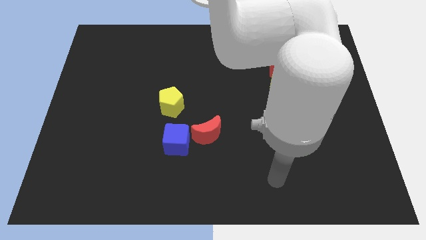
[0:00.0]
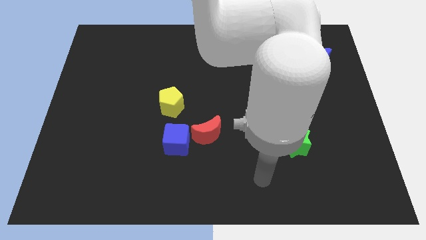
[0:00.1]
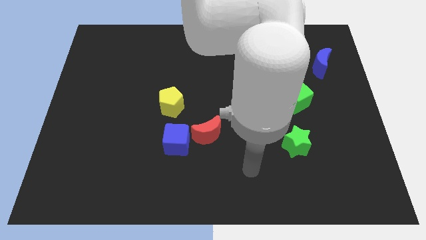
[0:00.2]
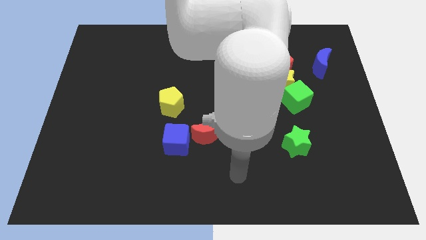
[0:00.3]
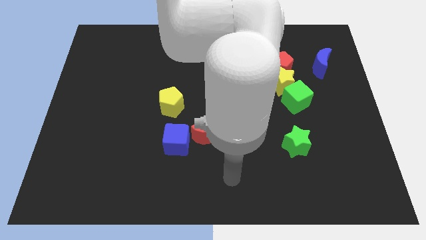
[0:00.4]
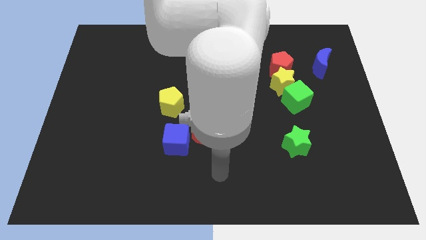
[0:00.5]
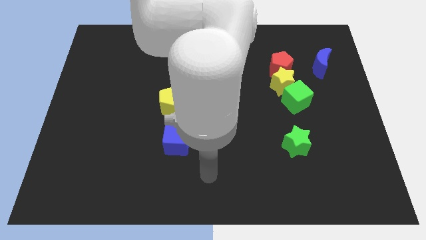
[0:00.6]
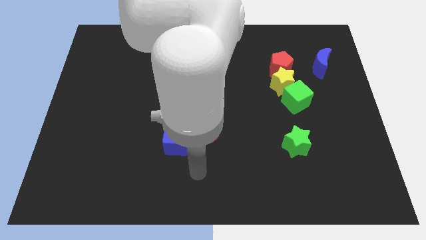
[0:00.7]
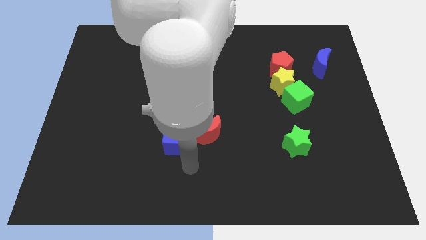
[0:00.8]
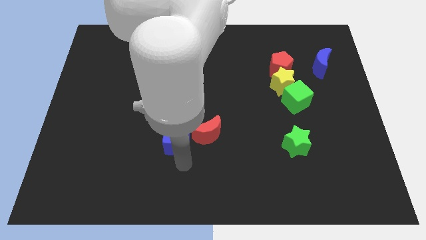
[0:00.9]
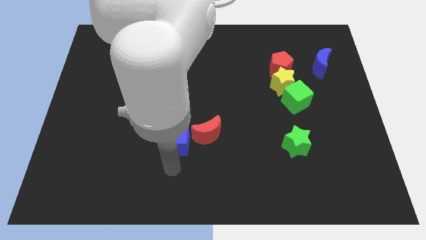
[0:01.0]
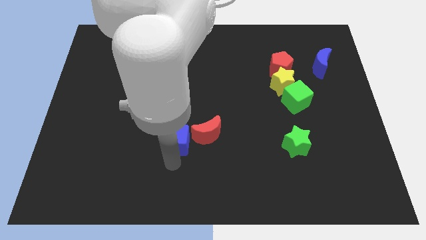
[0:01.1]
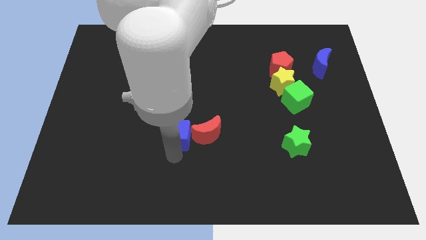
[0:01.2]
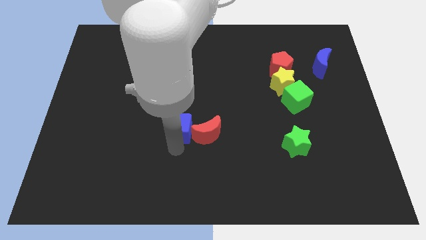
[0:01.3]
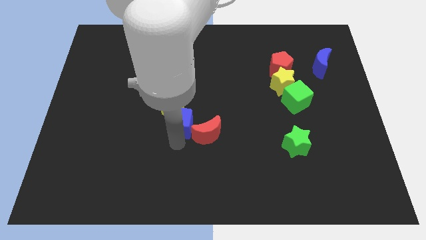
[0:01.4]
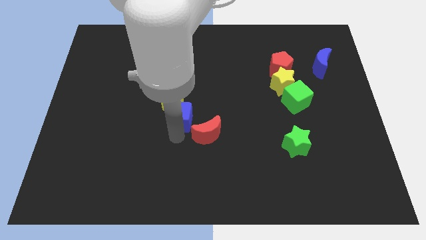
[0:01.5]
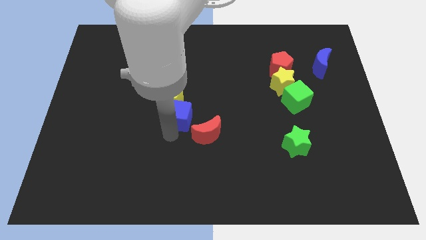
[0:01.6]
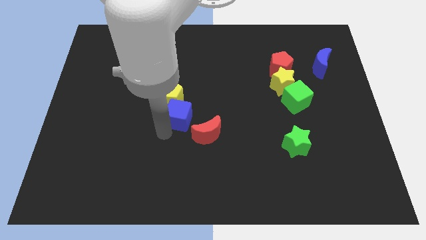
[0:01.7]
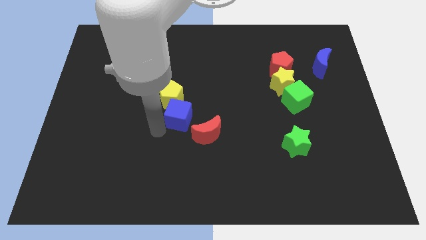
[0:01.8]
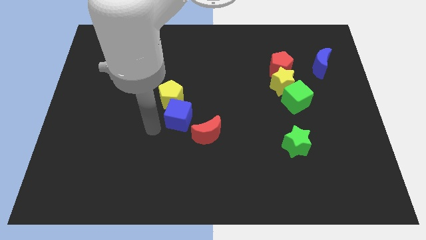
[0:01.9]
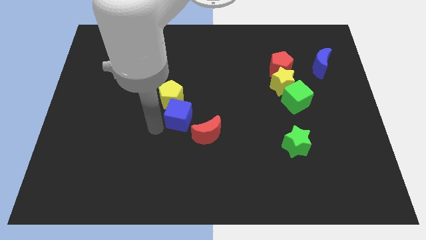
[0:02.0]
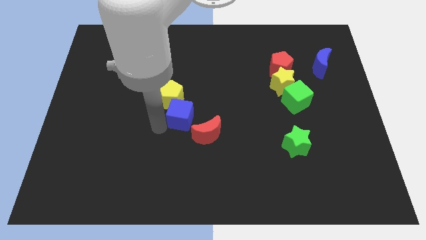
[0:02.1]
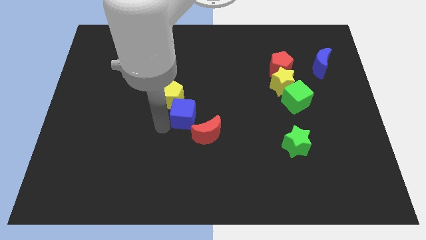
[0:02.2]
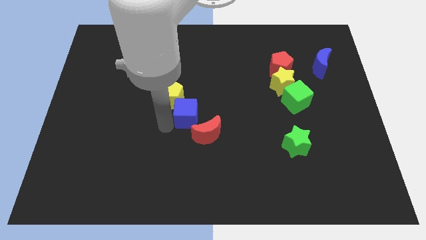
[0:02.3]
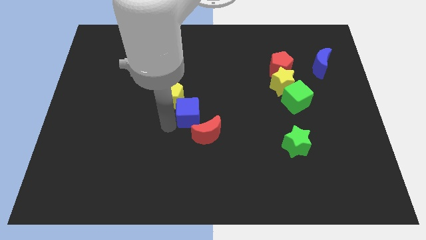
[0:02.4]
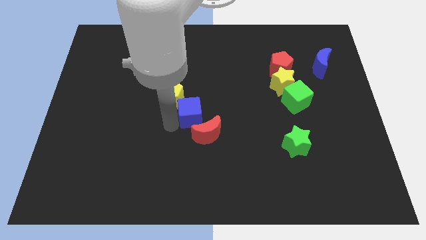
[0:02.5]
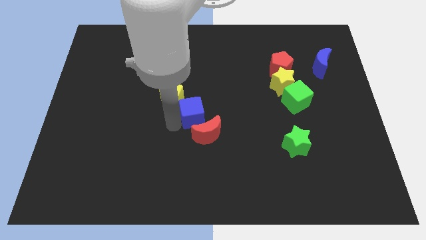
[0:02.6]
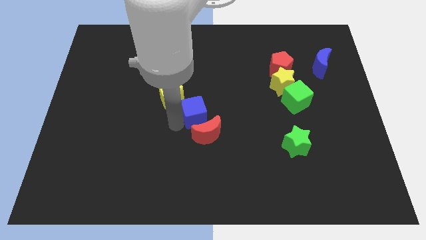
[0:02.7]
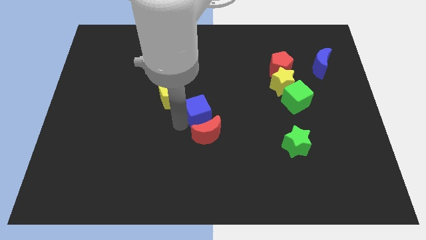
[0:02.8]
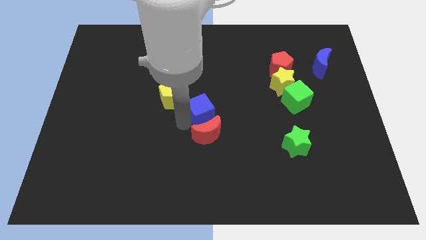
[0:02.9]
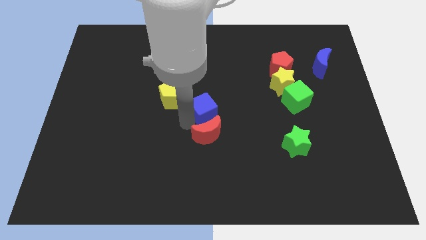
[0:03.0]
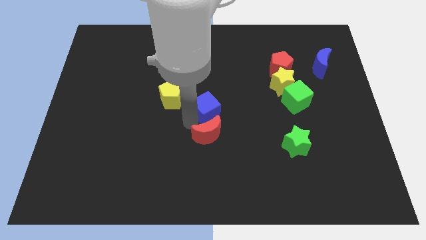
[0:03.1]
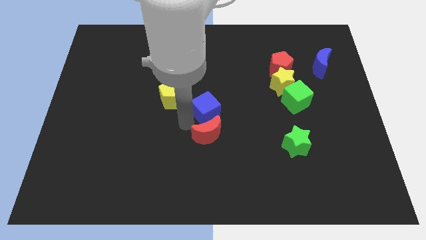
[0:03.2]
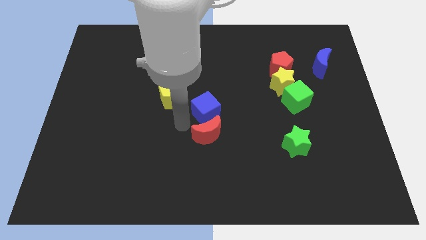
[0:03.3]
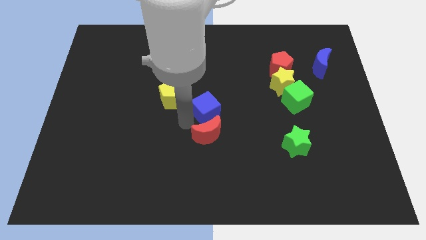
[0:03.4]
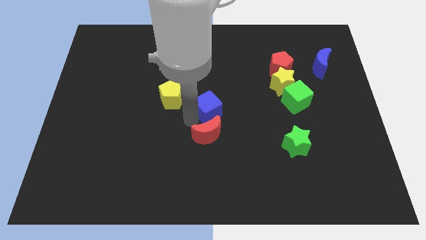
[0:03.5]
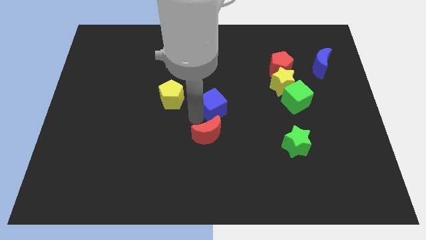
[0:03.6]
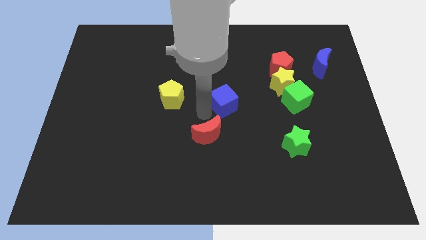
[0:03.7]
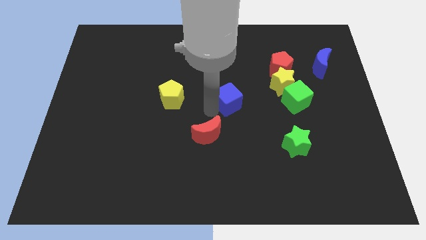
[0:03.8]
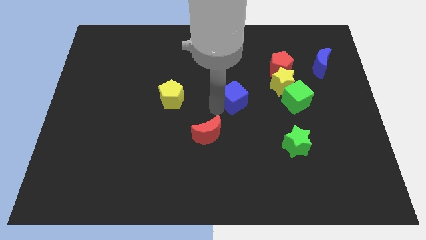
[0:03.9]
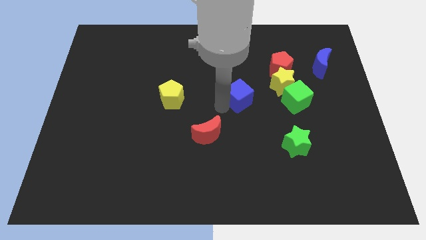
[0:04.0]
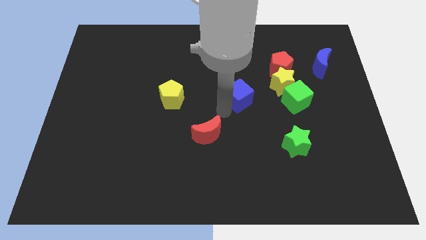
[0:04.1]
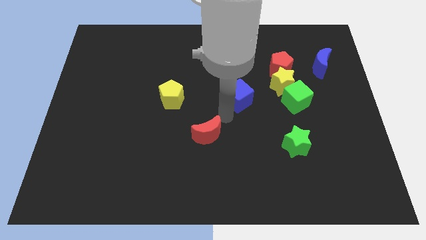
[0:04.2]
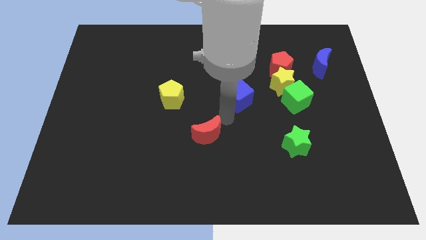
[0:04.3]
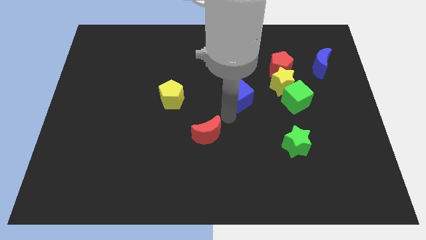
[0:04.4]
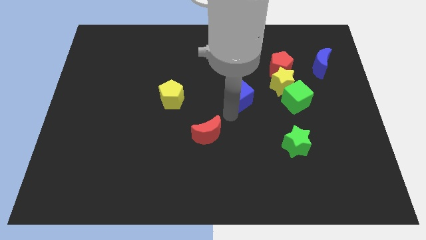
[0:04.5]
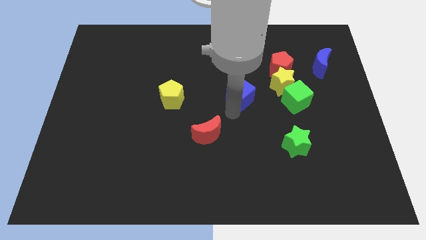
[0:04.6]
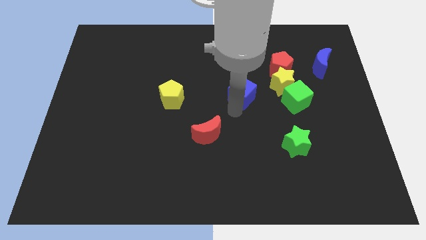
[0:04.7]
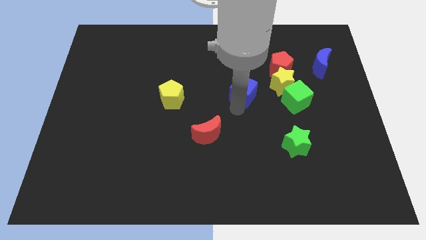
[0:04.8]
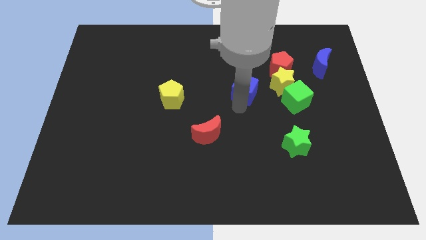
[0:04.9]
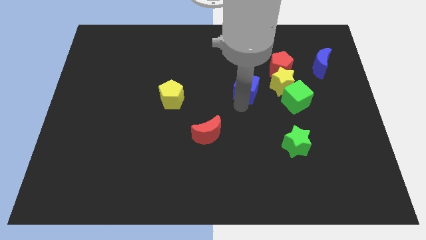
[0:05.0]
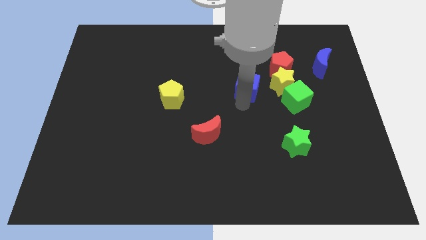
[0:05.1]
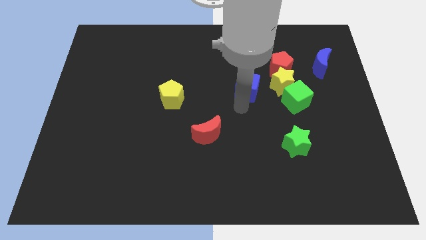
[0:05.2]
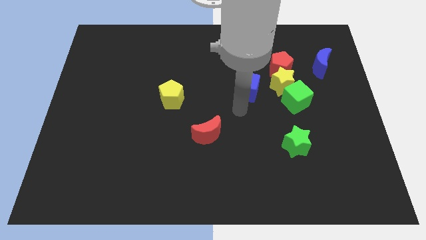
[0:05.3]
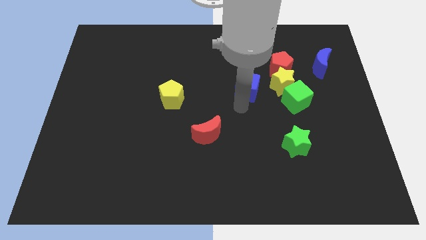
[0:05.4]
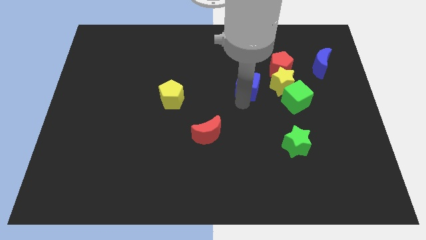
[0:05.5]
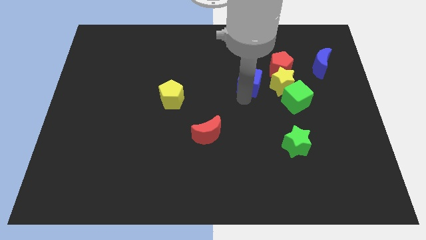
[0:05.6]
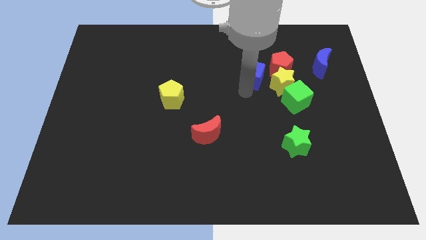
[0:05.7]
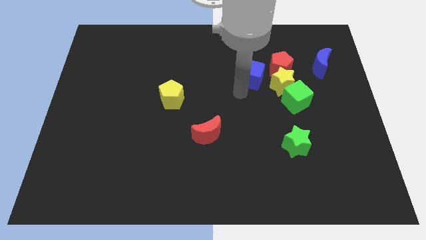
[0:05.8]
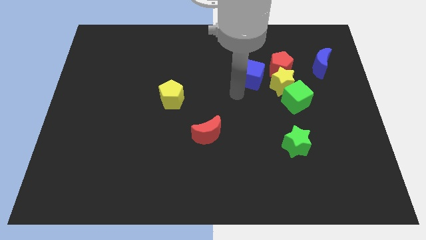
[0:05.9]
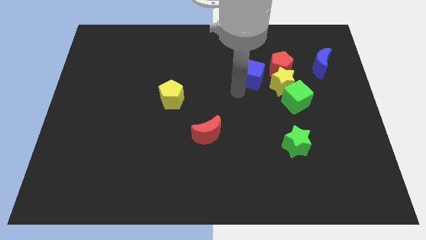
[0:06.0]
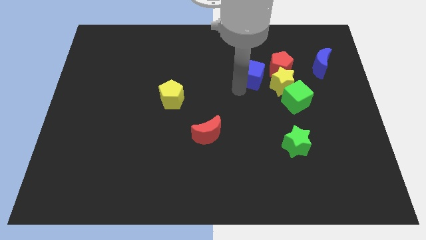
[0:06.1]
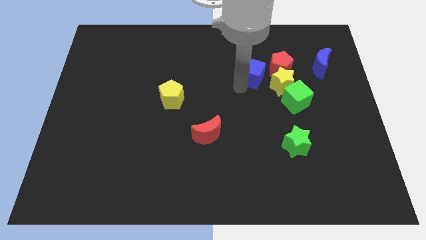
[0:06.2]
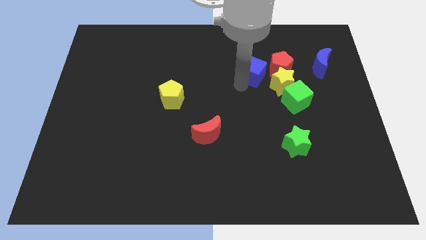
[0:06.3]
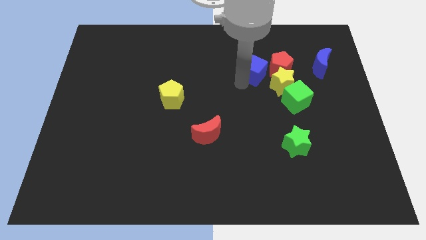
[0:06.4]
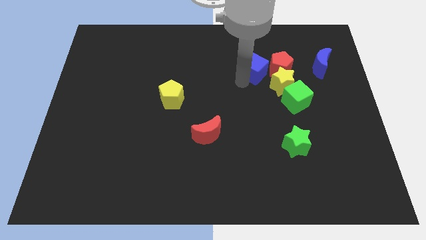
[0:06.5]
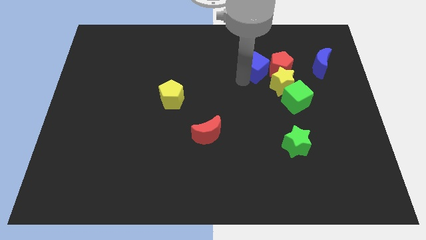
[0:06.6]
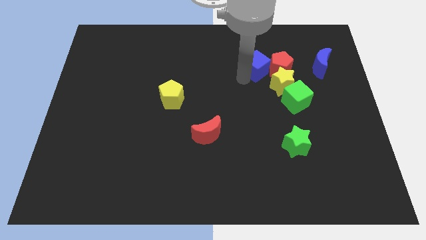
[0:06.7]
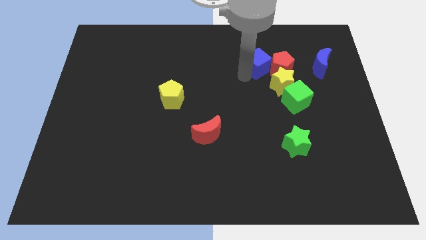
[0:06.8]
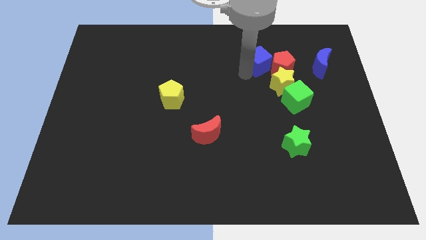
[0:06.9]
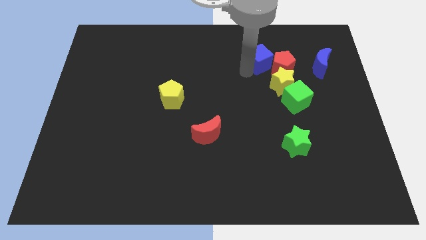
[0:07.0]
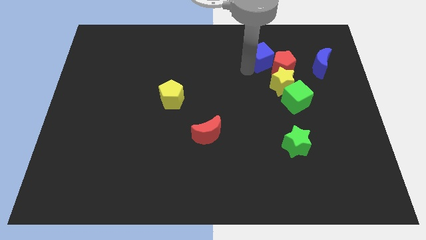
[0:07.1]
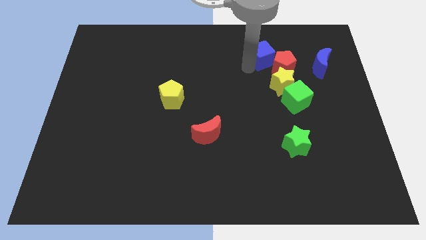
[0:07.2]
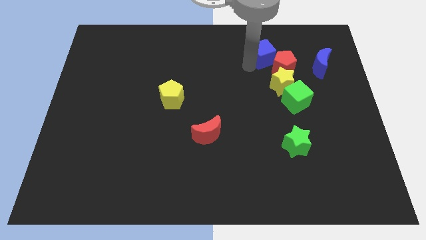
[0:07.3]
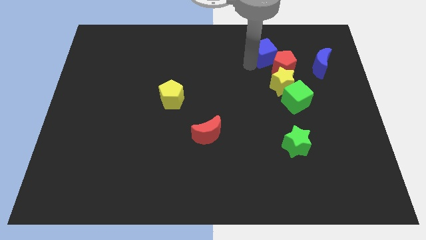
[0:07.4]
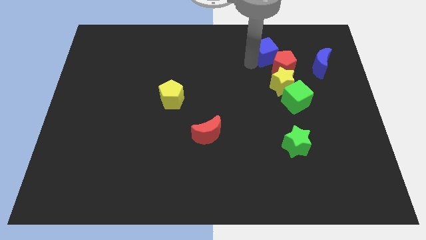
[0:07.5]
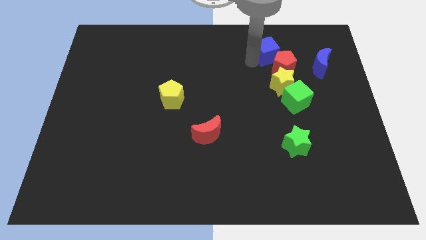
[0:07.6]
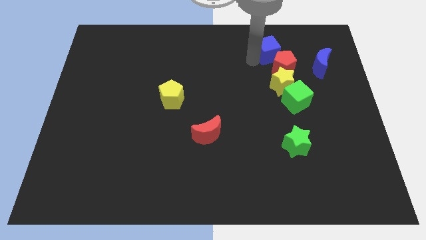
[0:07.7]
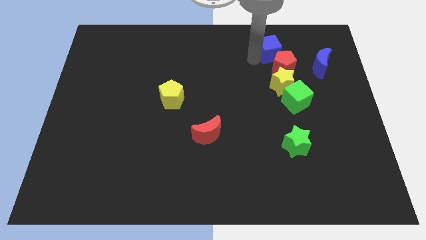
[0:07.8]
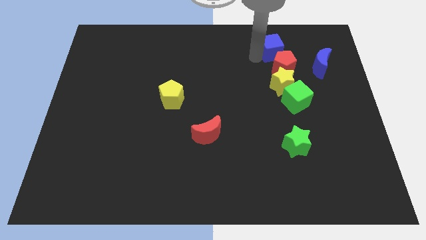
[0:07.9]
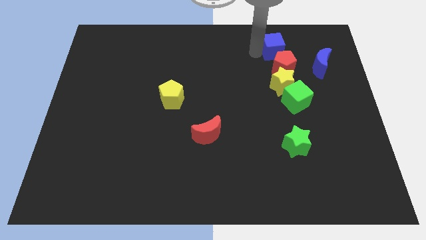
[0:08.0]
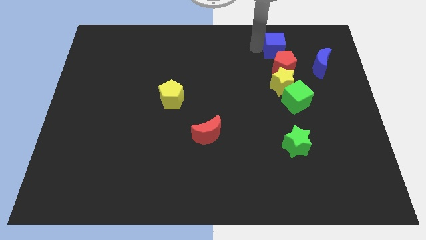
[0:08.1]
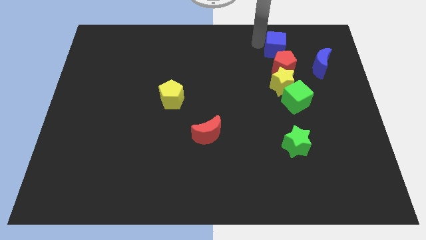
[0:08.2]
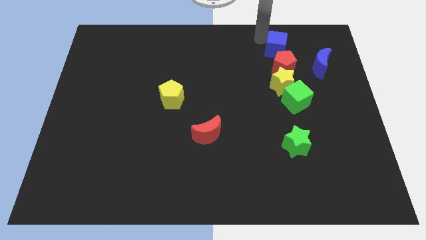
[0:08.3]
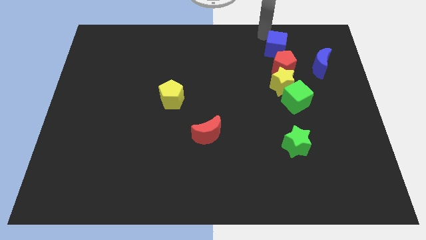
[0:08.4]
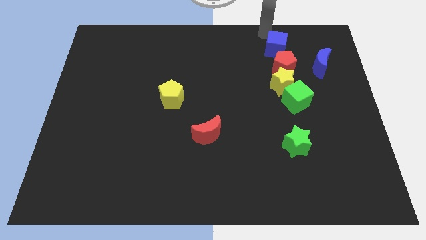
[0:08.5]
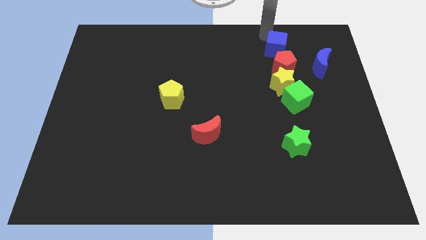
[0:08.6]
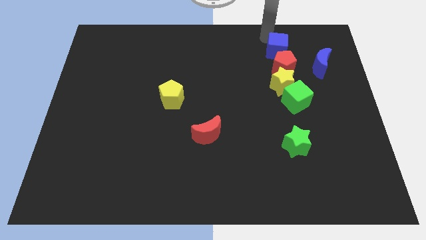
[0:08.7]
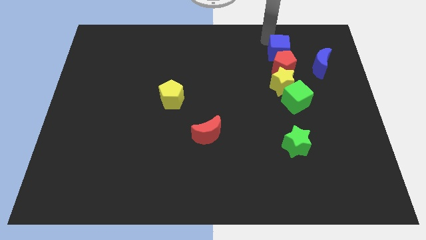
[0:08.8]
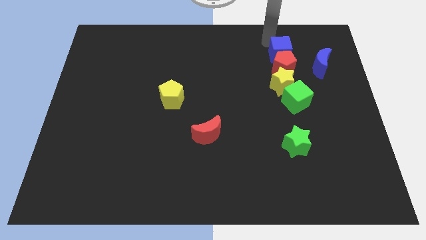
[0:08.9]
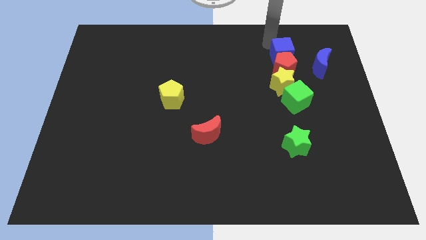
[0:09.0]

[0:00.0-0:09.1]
move the blue cube to the top side of the green cube
